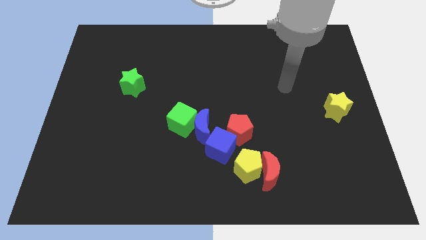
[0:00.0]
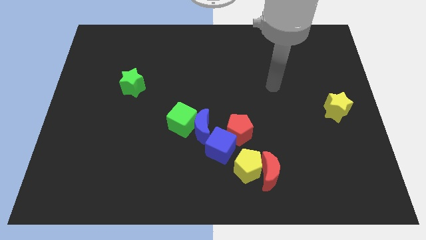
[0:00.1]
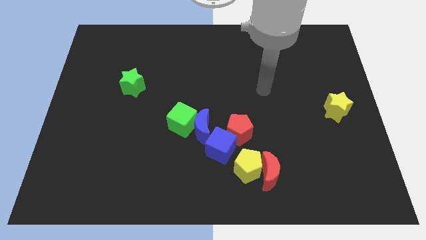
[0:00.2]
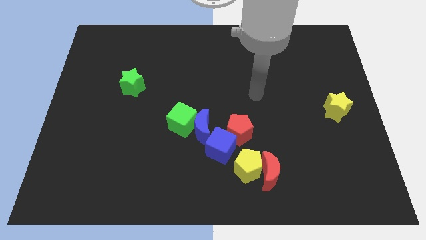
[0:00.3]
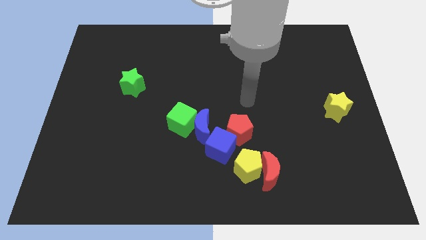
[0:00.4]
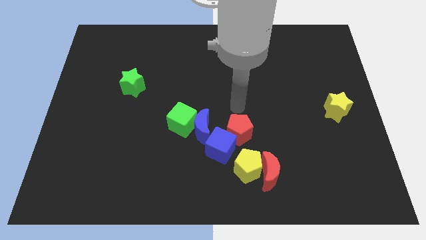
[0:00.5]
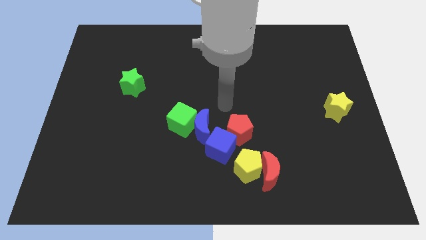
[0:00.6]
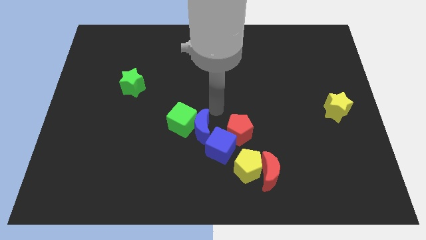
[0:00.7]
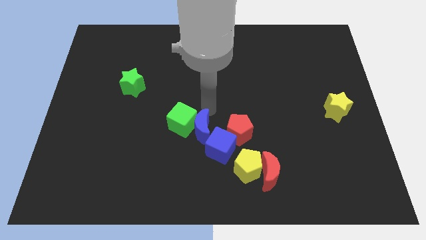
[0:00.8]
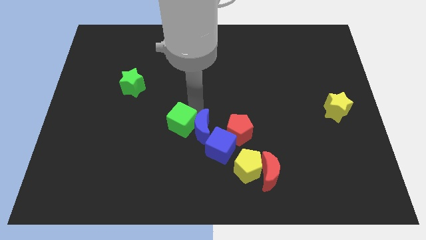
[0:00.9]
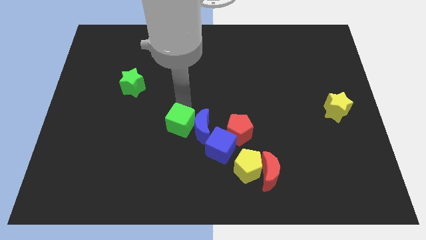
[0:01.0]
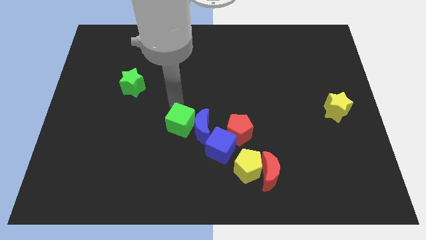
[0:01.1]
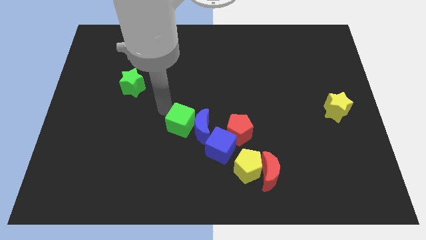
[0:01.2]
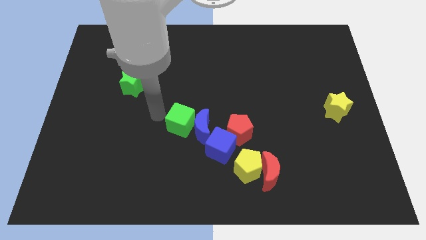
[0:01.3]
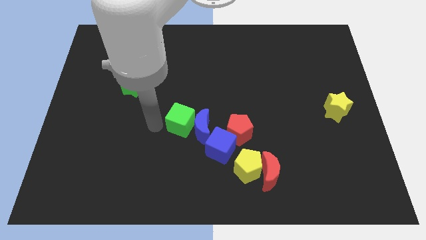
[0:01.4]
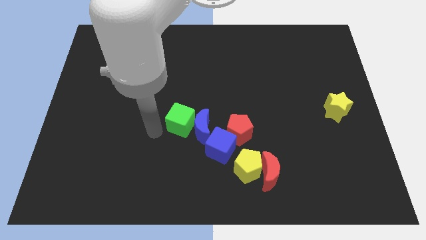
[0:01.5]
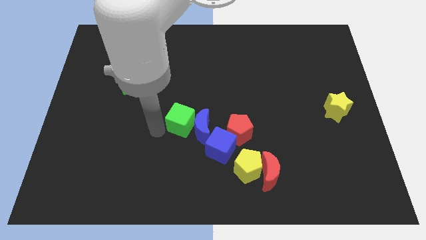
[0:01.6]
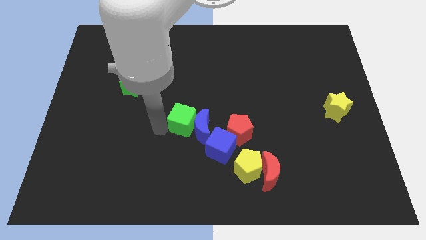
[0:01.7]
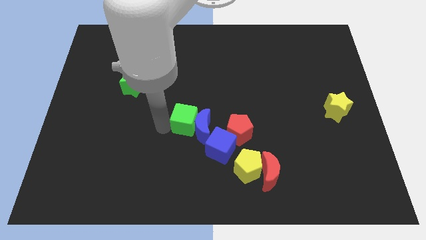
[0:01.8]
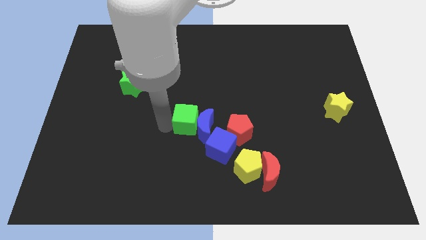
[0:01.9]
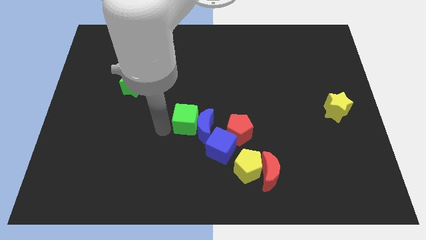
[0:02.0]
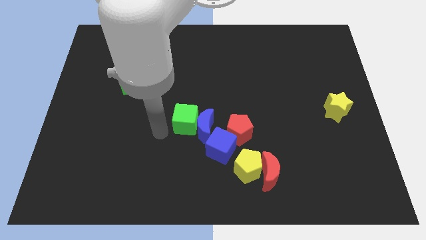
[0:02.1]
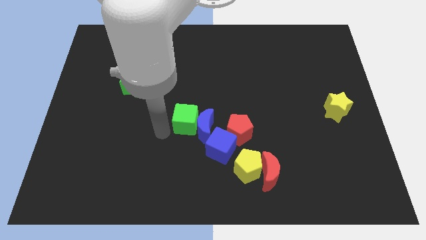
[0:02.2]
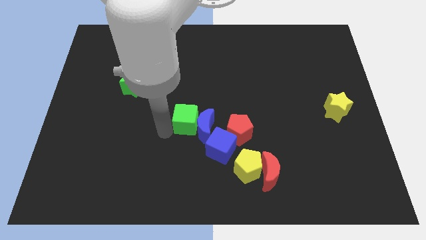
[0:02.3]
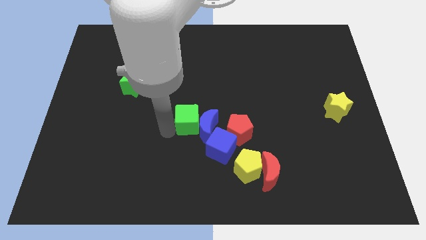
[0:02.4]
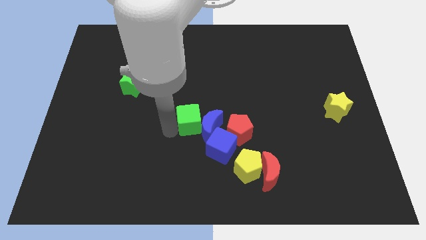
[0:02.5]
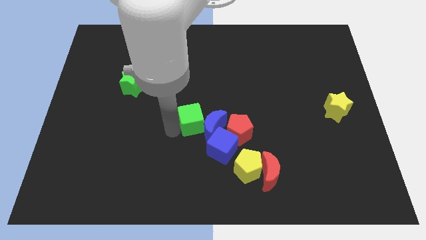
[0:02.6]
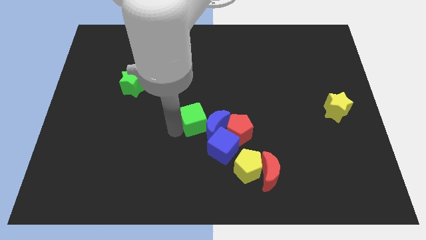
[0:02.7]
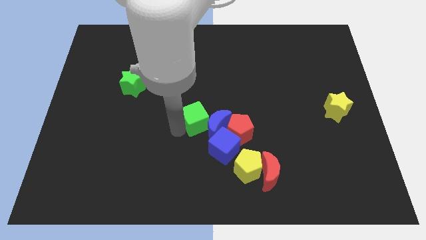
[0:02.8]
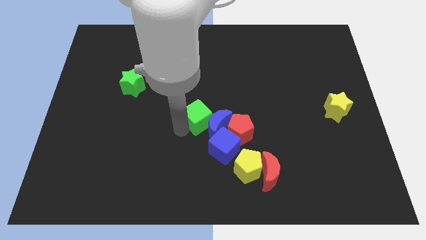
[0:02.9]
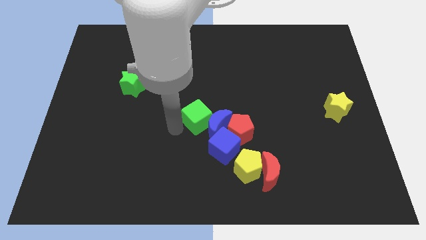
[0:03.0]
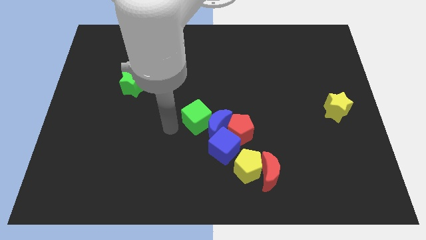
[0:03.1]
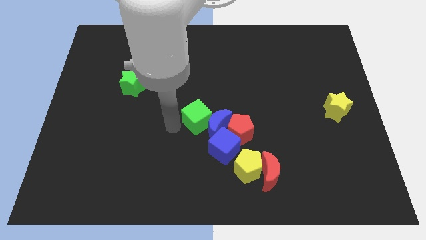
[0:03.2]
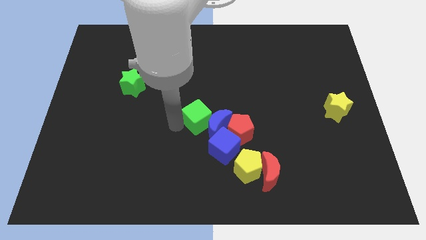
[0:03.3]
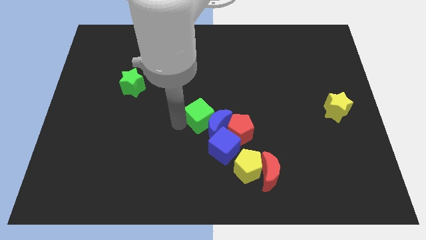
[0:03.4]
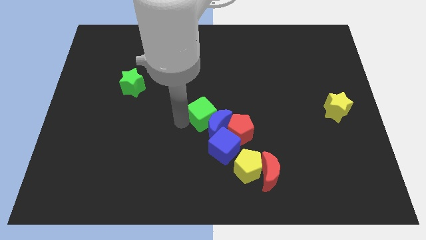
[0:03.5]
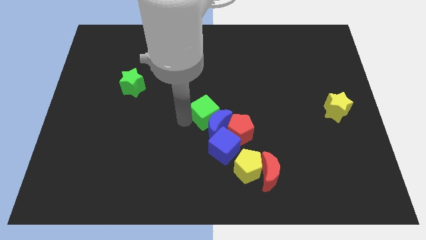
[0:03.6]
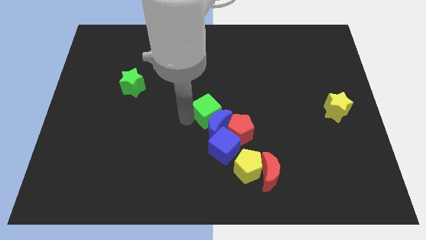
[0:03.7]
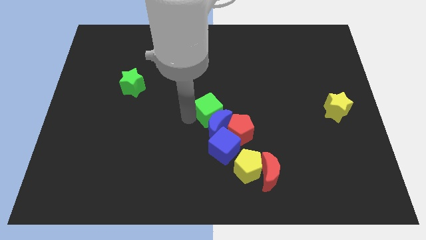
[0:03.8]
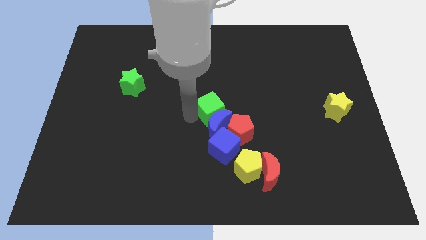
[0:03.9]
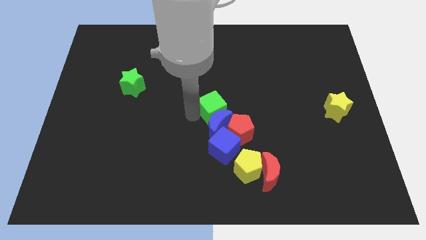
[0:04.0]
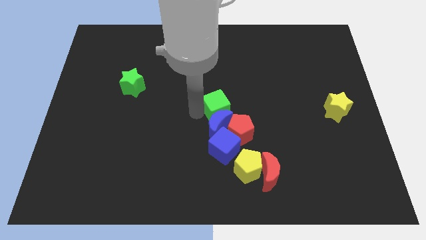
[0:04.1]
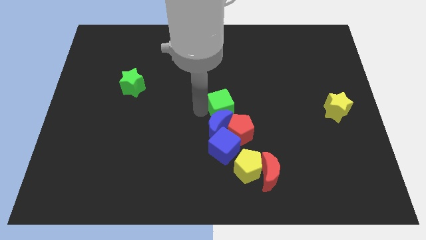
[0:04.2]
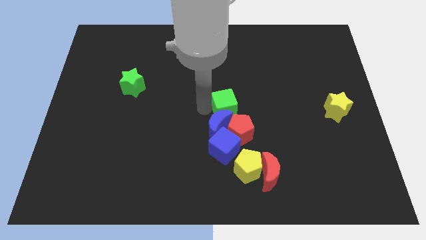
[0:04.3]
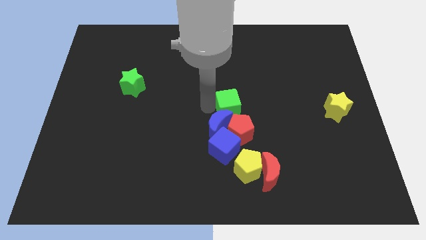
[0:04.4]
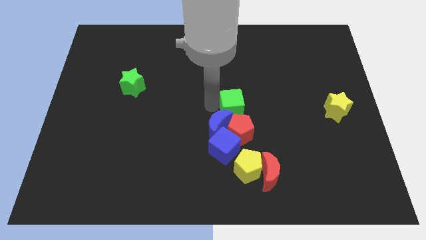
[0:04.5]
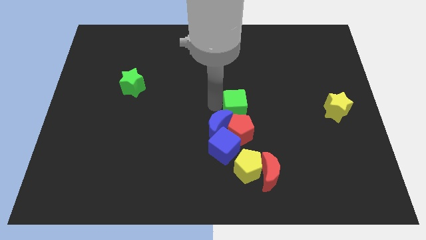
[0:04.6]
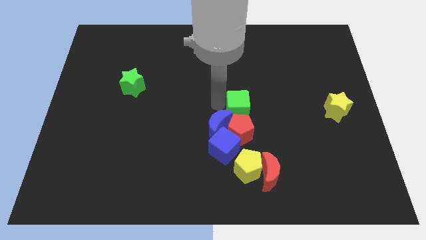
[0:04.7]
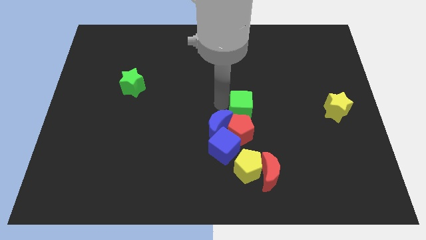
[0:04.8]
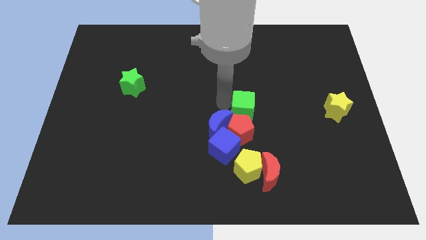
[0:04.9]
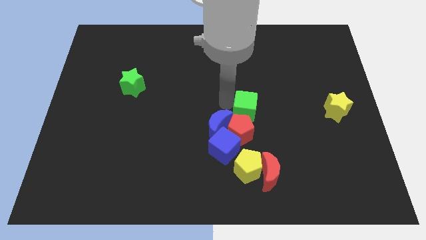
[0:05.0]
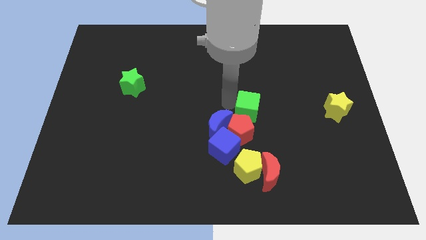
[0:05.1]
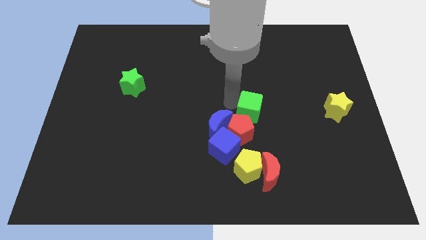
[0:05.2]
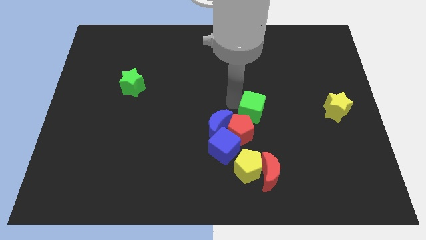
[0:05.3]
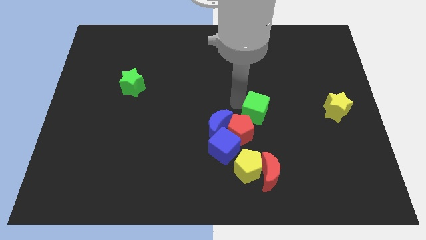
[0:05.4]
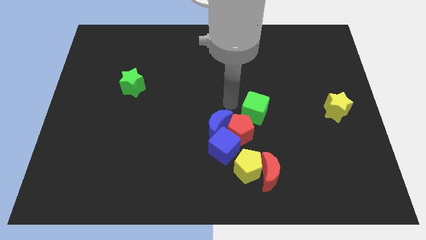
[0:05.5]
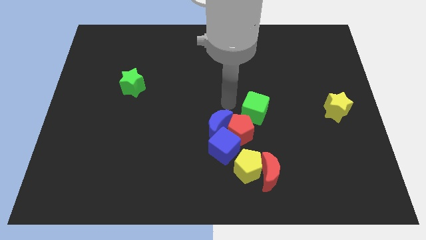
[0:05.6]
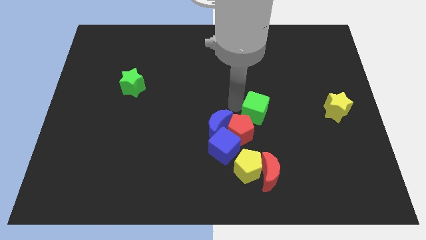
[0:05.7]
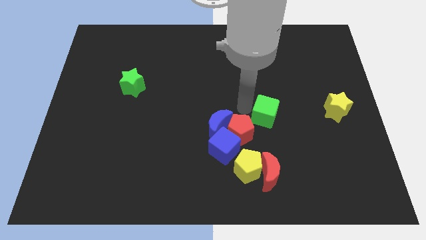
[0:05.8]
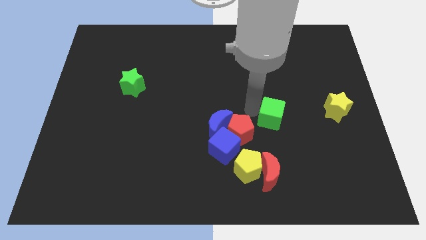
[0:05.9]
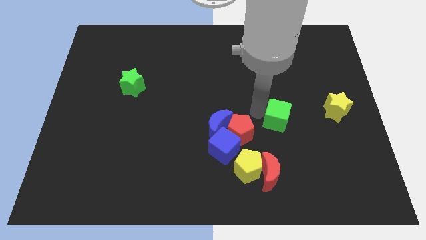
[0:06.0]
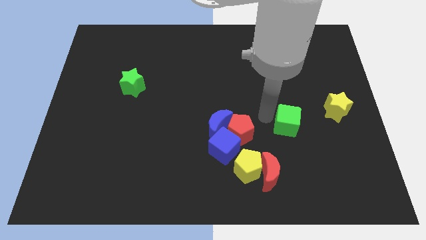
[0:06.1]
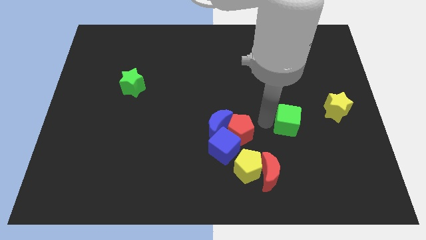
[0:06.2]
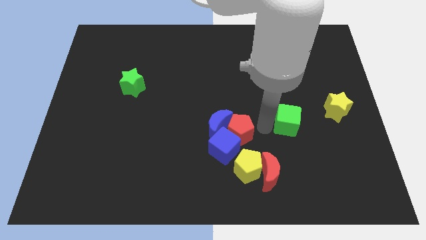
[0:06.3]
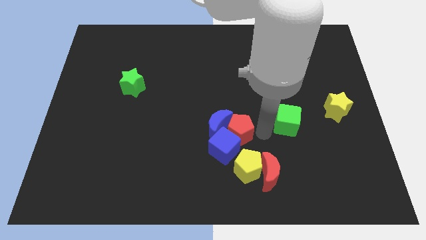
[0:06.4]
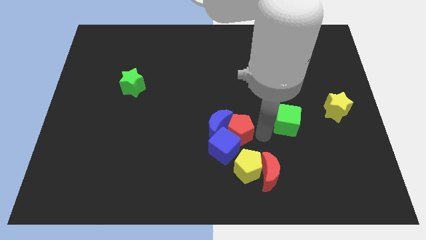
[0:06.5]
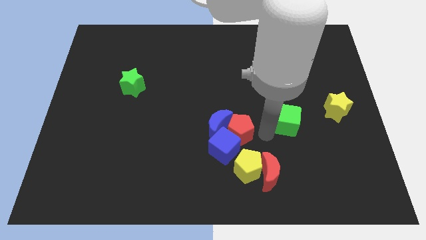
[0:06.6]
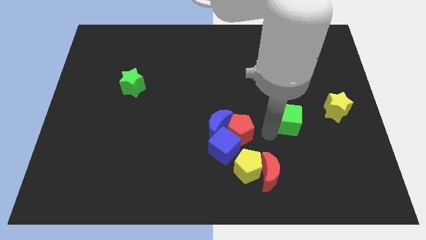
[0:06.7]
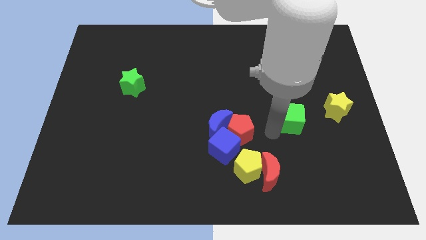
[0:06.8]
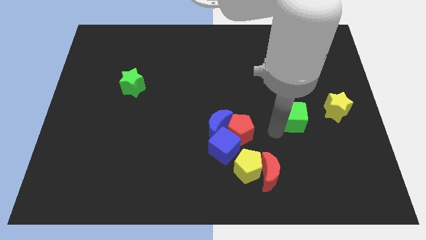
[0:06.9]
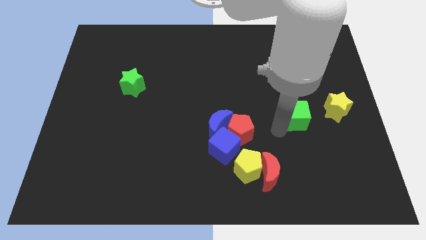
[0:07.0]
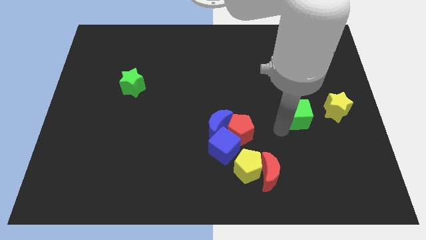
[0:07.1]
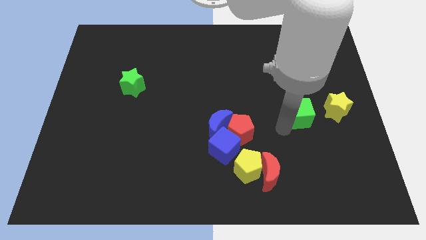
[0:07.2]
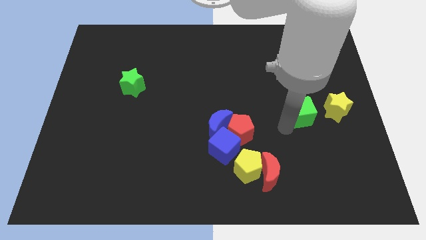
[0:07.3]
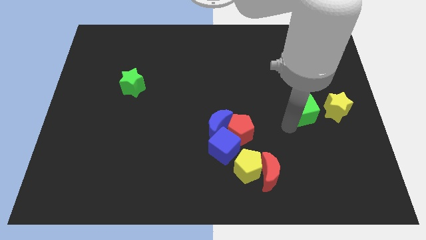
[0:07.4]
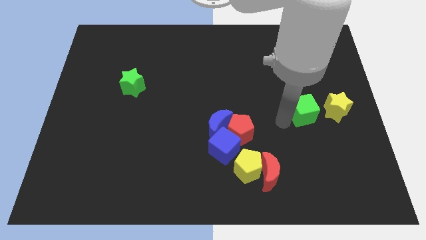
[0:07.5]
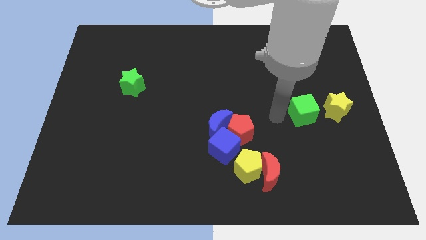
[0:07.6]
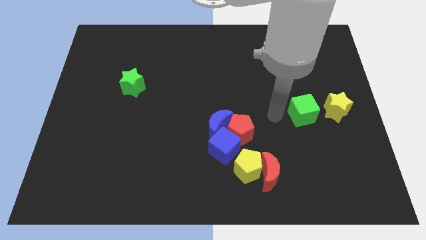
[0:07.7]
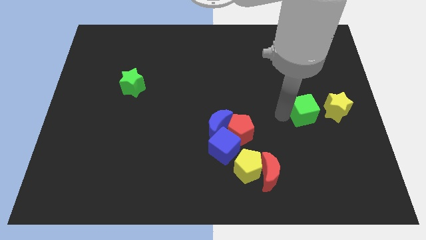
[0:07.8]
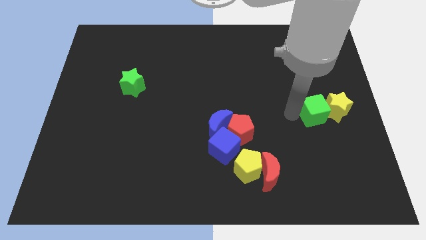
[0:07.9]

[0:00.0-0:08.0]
slide the green cube to the yellow star

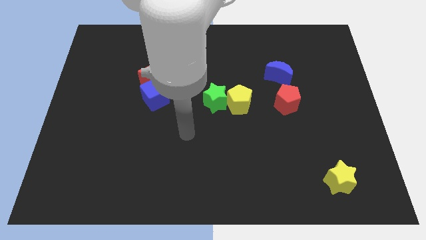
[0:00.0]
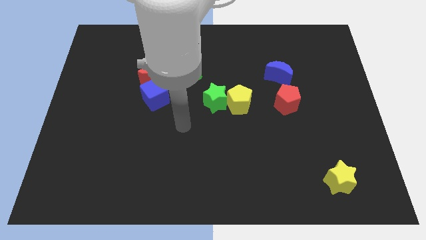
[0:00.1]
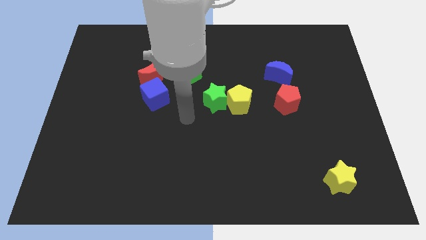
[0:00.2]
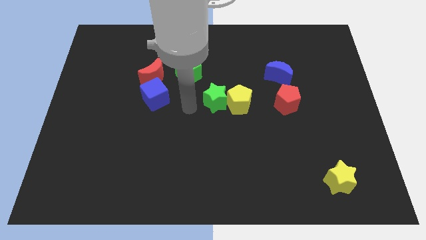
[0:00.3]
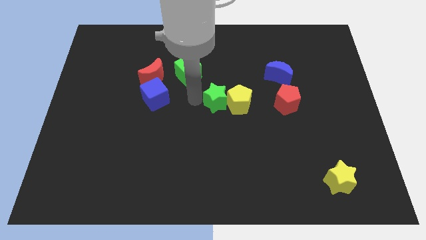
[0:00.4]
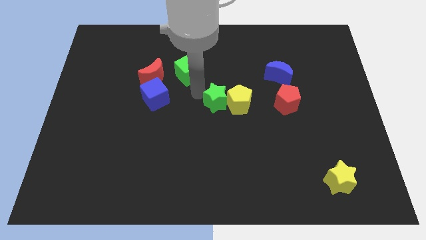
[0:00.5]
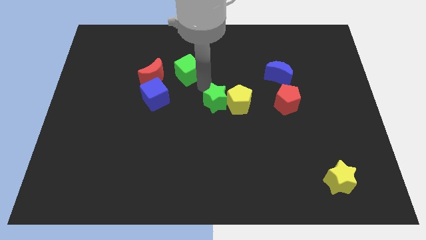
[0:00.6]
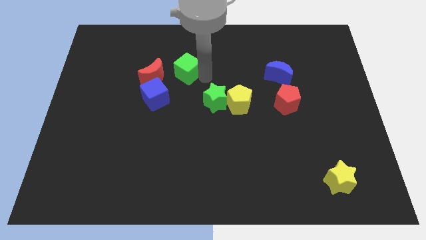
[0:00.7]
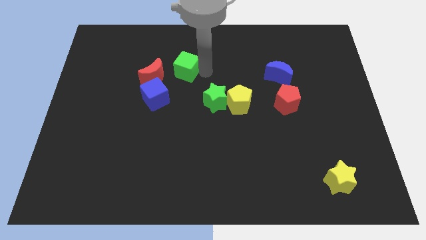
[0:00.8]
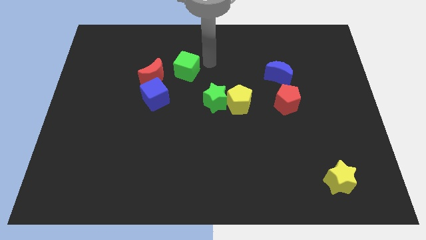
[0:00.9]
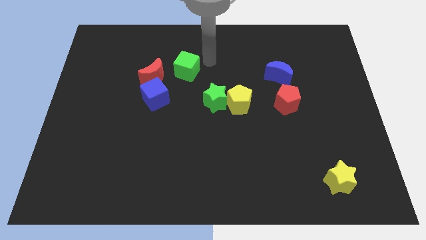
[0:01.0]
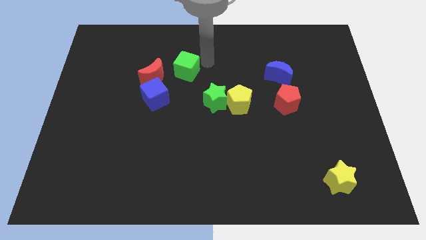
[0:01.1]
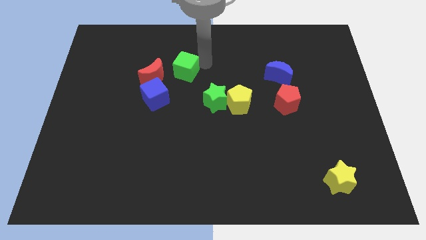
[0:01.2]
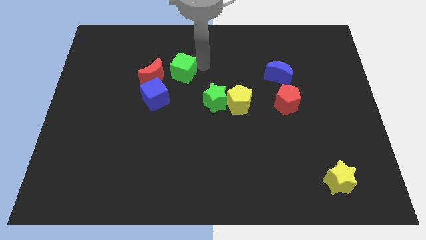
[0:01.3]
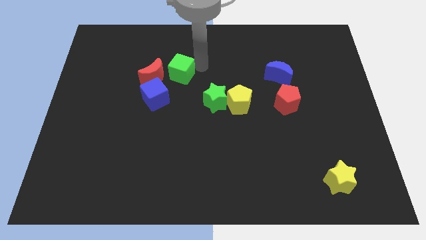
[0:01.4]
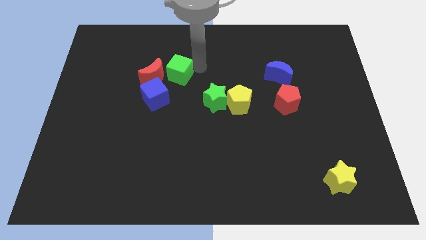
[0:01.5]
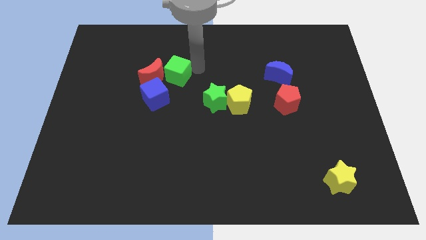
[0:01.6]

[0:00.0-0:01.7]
slide the green cube towards the red moon
